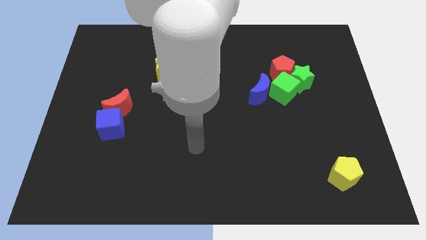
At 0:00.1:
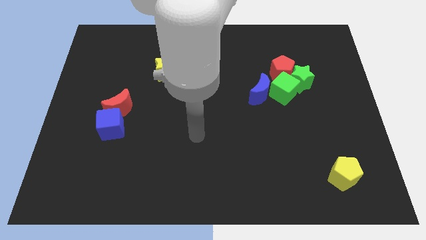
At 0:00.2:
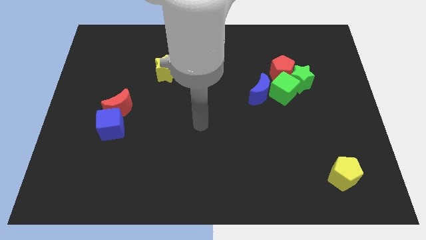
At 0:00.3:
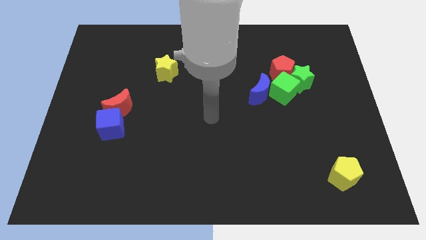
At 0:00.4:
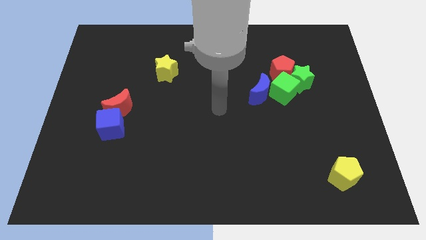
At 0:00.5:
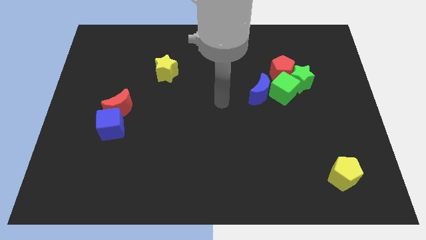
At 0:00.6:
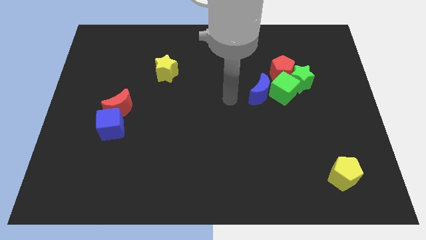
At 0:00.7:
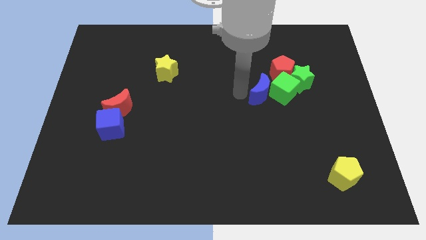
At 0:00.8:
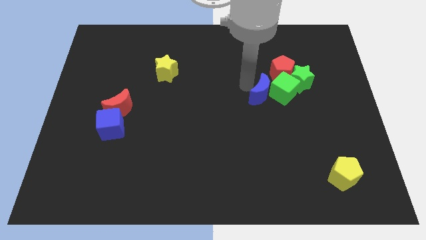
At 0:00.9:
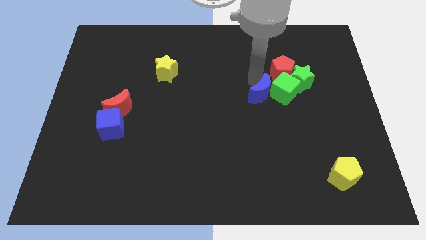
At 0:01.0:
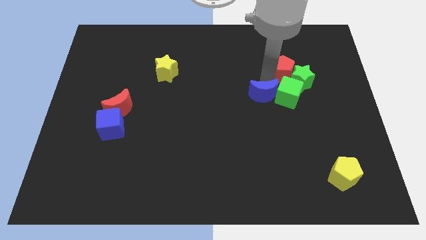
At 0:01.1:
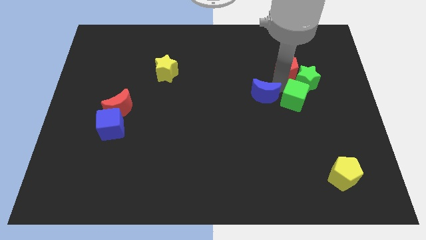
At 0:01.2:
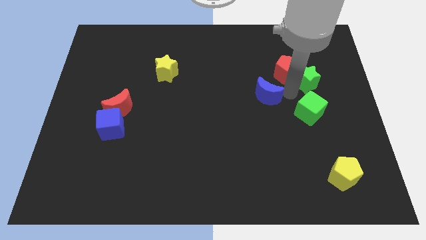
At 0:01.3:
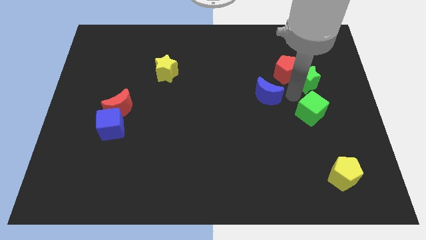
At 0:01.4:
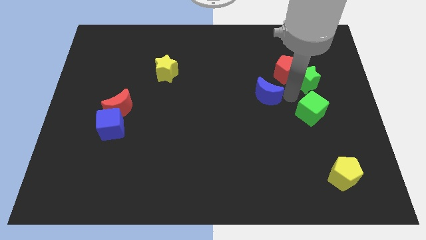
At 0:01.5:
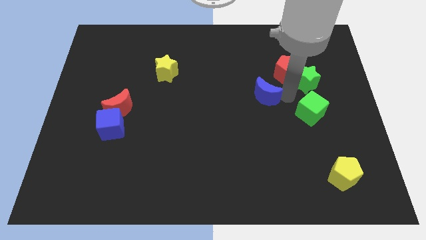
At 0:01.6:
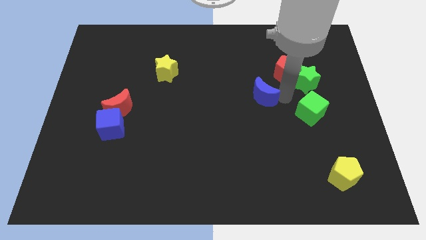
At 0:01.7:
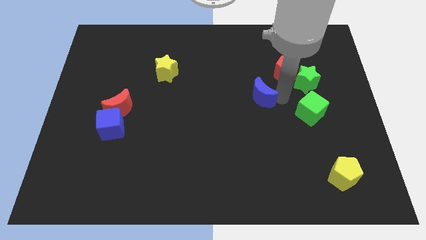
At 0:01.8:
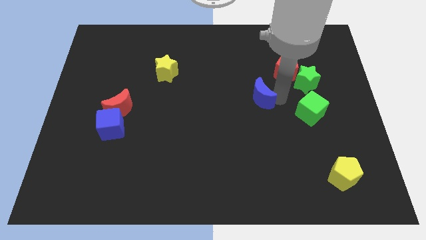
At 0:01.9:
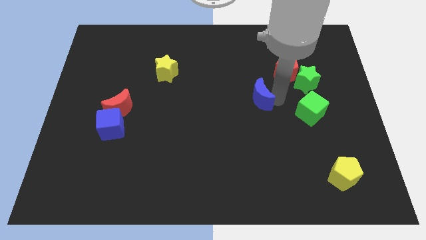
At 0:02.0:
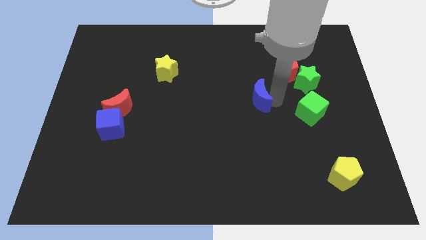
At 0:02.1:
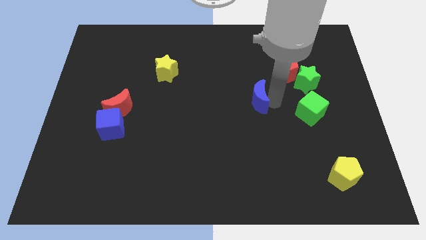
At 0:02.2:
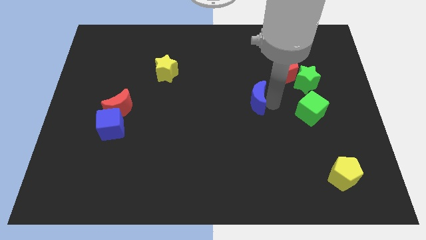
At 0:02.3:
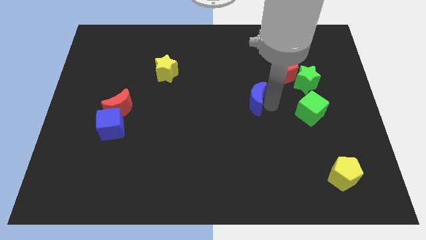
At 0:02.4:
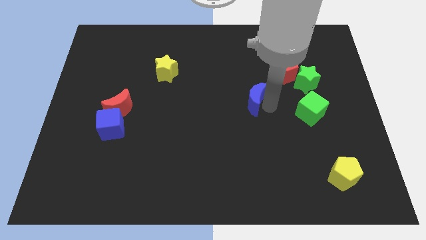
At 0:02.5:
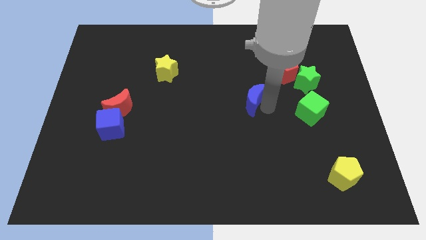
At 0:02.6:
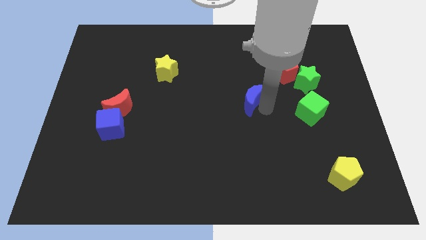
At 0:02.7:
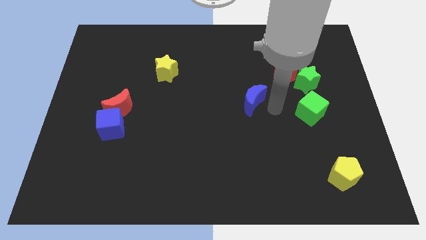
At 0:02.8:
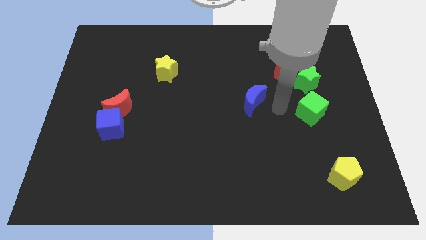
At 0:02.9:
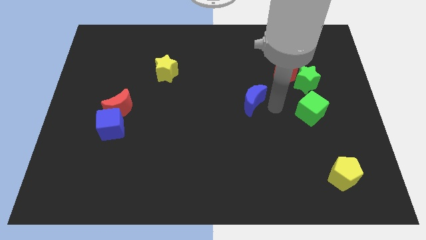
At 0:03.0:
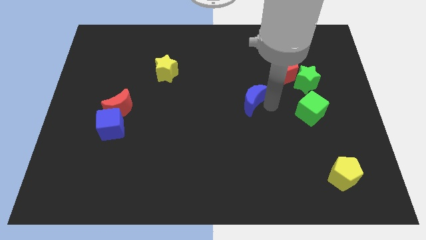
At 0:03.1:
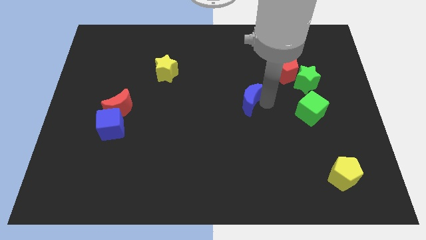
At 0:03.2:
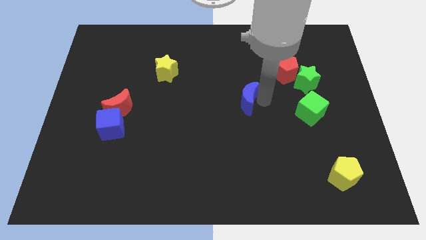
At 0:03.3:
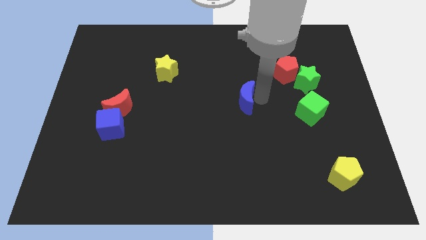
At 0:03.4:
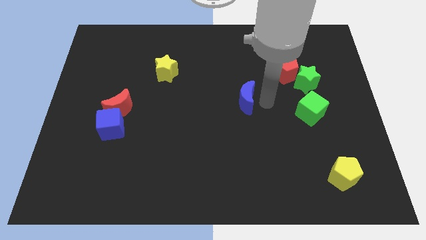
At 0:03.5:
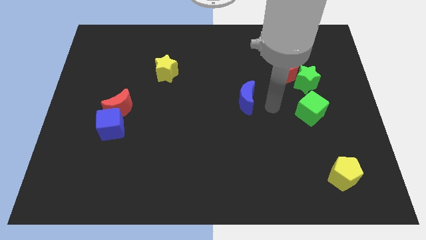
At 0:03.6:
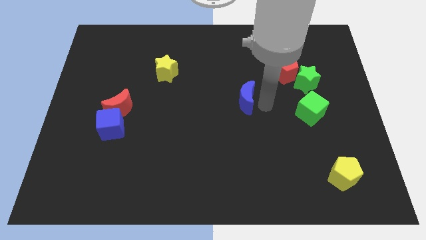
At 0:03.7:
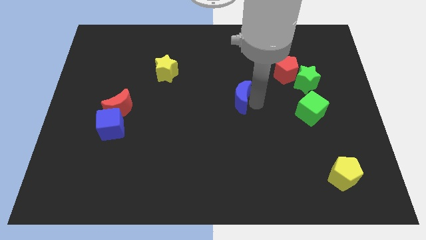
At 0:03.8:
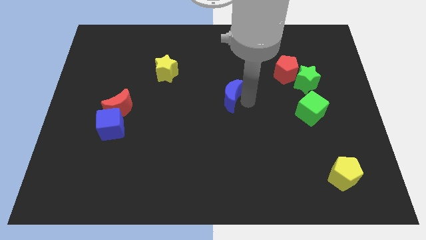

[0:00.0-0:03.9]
move the blue moon left a bit

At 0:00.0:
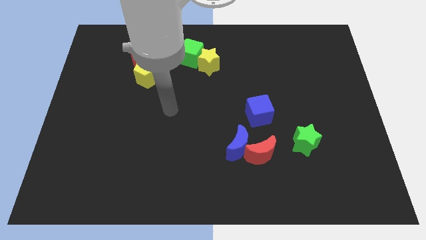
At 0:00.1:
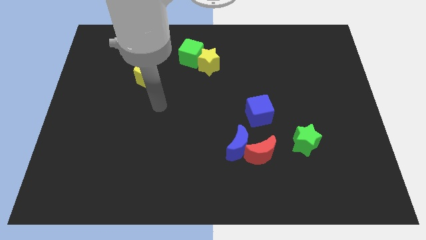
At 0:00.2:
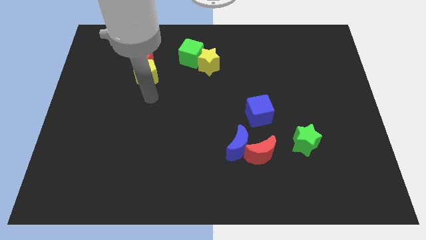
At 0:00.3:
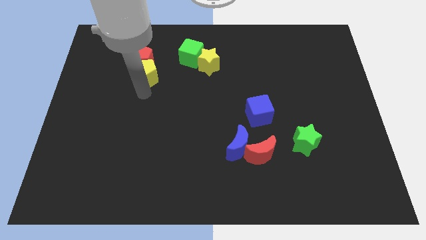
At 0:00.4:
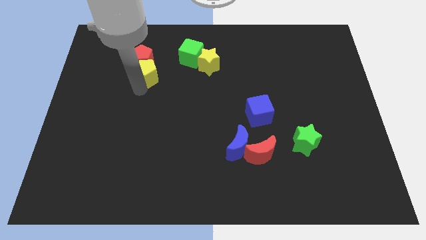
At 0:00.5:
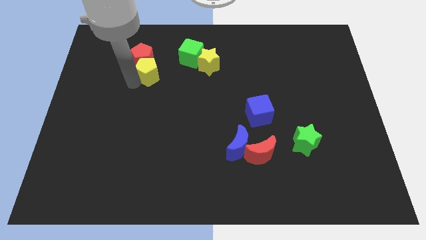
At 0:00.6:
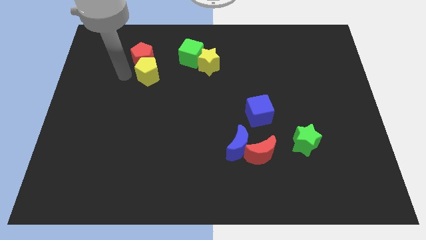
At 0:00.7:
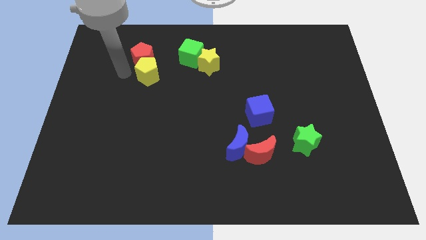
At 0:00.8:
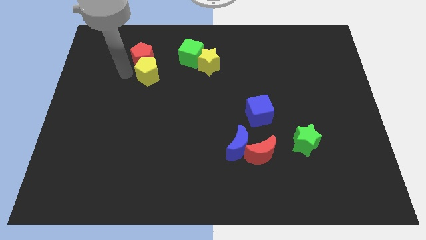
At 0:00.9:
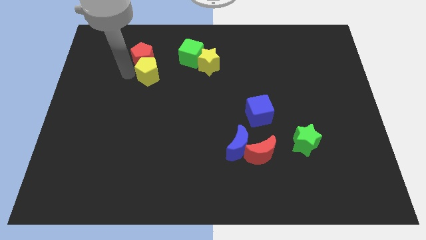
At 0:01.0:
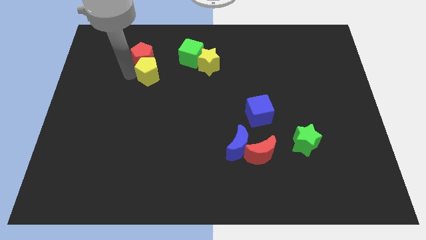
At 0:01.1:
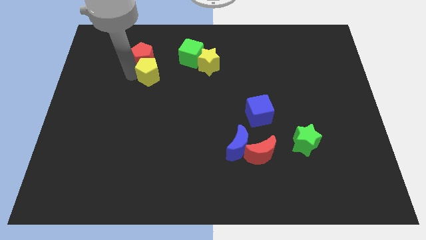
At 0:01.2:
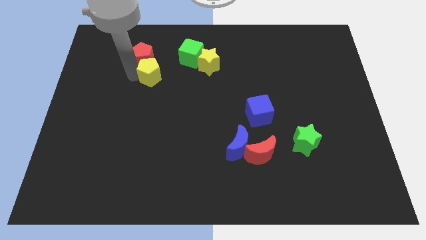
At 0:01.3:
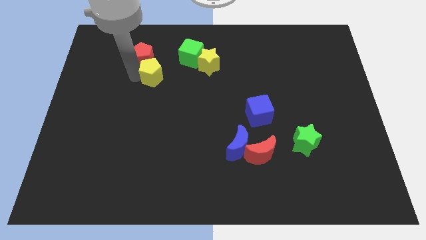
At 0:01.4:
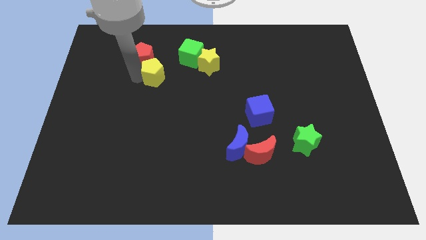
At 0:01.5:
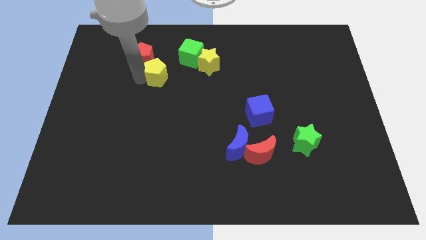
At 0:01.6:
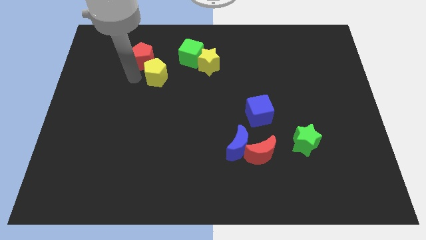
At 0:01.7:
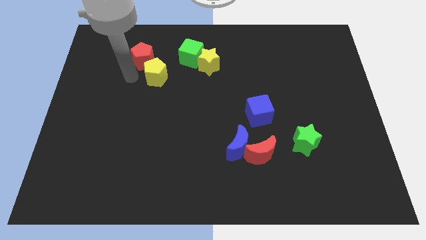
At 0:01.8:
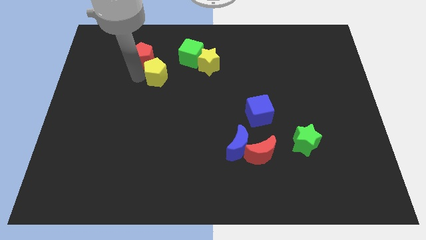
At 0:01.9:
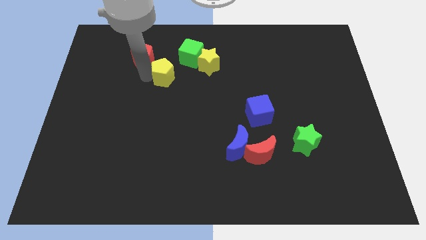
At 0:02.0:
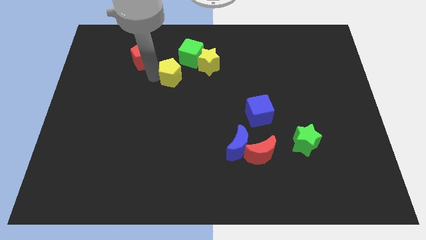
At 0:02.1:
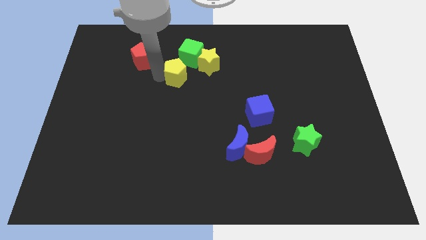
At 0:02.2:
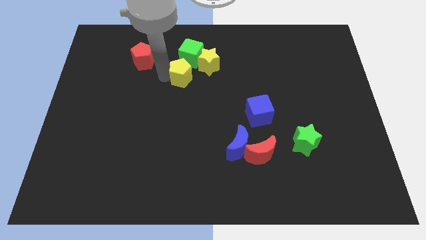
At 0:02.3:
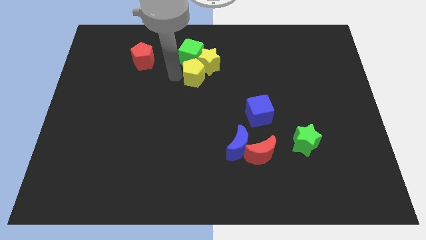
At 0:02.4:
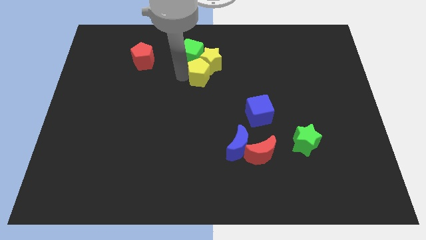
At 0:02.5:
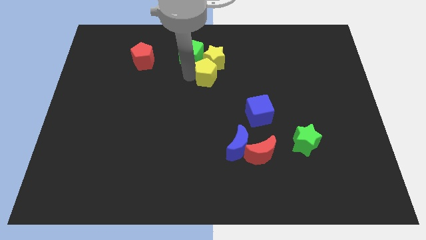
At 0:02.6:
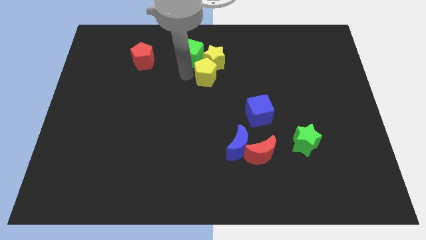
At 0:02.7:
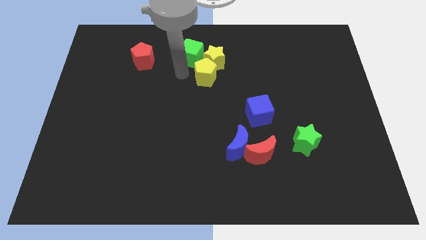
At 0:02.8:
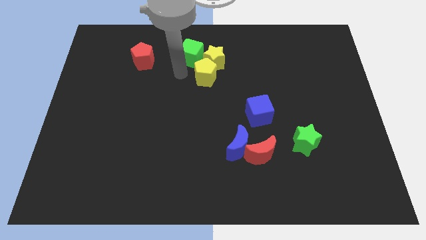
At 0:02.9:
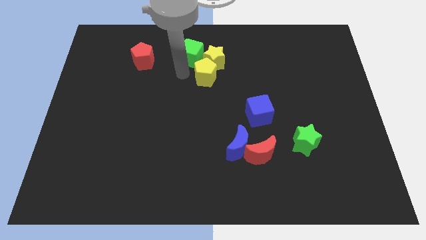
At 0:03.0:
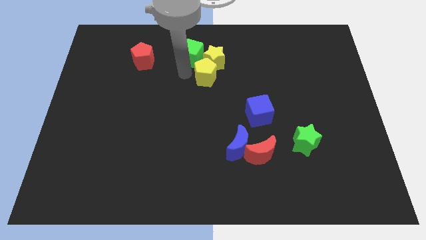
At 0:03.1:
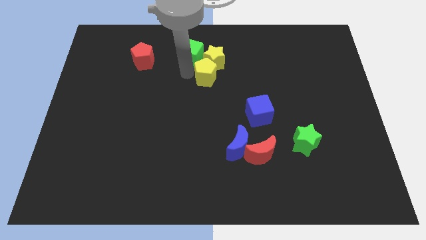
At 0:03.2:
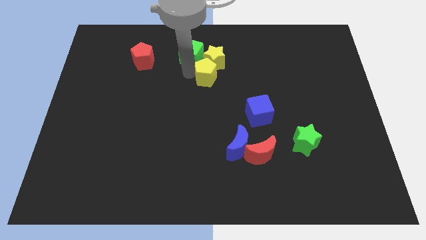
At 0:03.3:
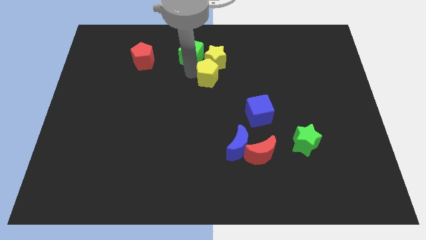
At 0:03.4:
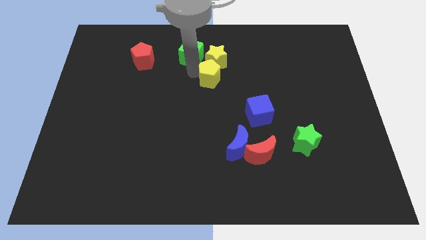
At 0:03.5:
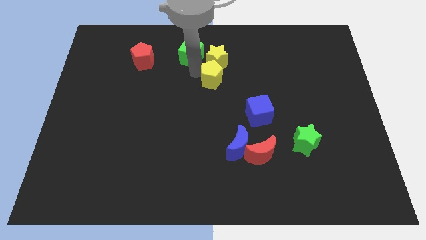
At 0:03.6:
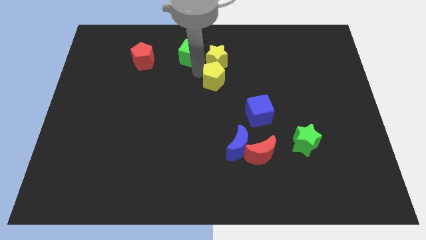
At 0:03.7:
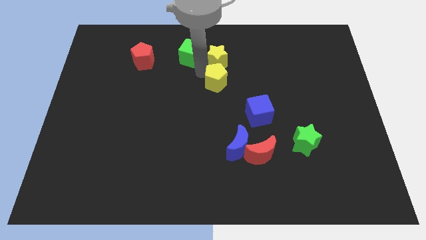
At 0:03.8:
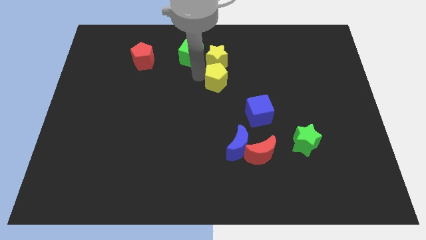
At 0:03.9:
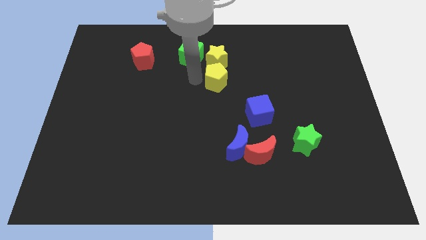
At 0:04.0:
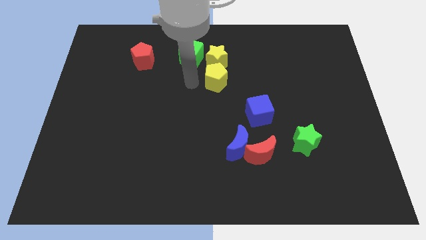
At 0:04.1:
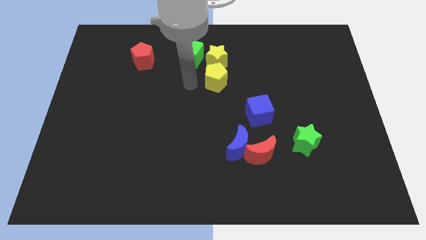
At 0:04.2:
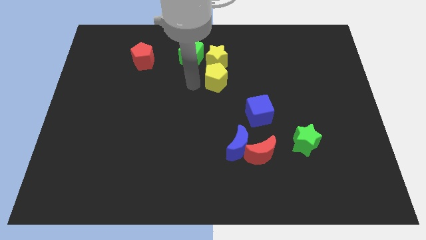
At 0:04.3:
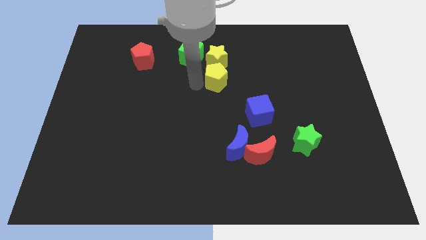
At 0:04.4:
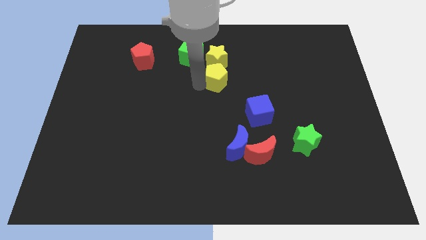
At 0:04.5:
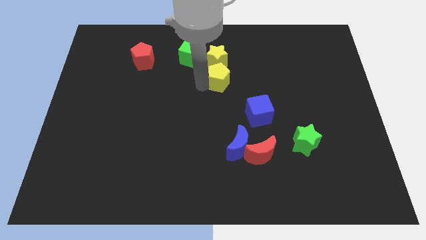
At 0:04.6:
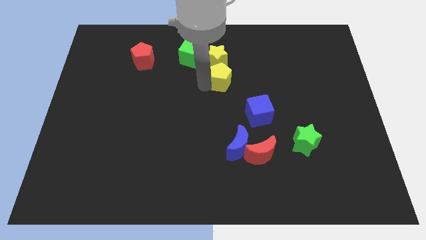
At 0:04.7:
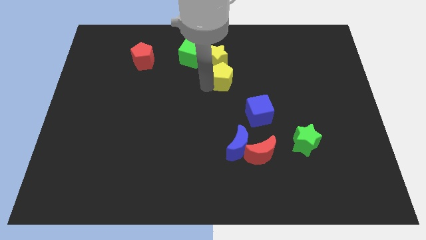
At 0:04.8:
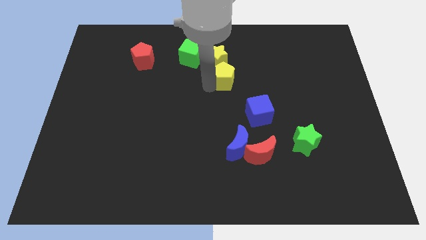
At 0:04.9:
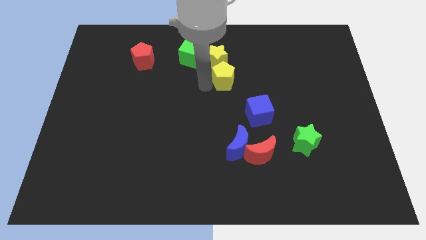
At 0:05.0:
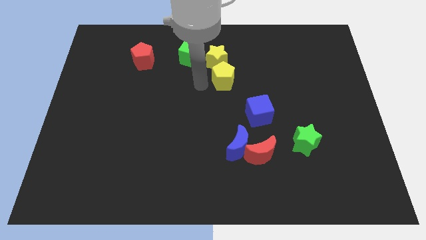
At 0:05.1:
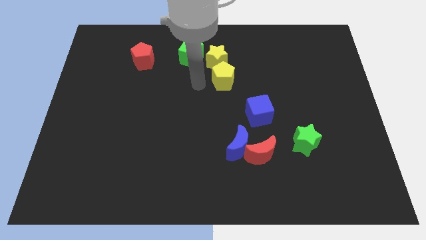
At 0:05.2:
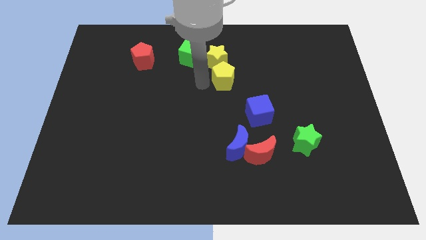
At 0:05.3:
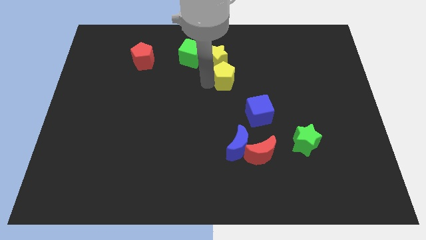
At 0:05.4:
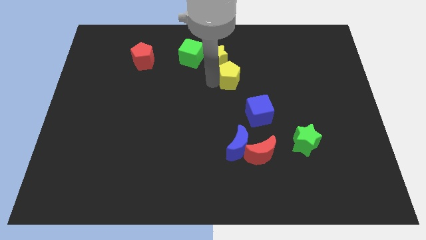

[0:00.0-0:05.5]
push the yellow pentagon to the right
